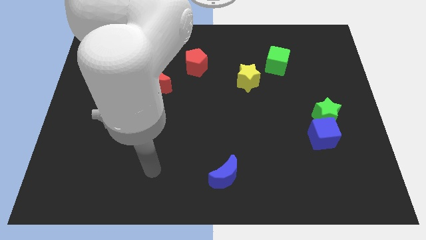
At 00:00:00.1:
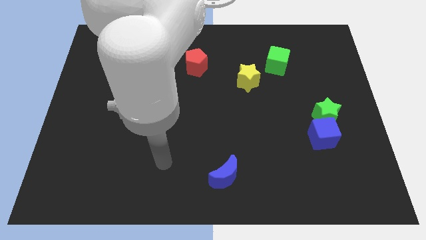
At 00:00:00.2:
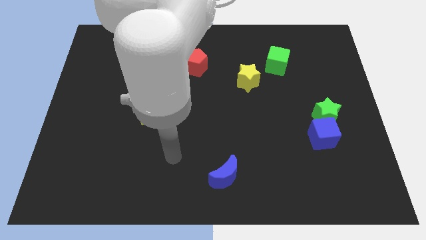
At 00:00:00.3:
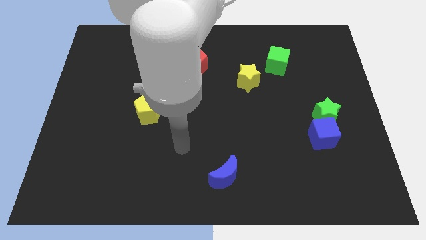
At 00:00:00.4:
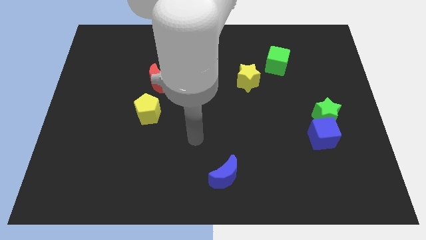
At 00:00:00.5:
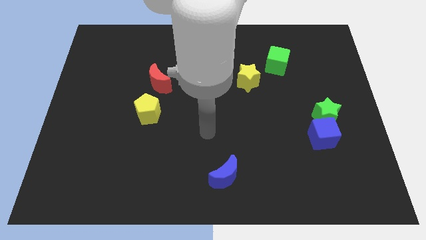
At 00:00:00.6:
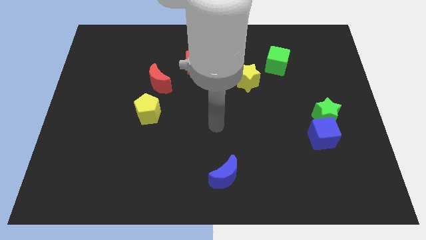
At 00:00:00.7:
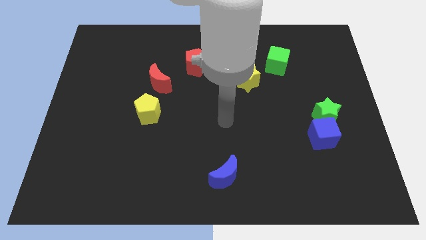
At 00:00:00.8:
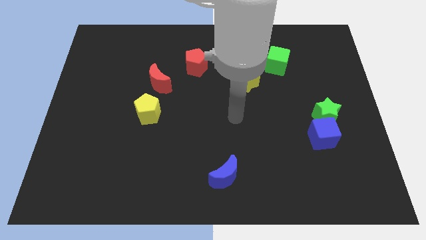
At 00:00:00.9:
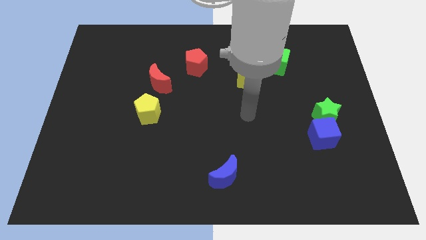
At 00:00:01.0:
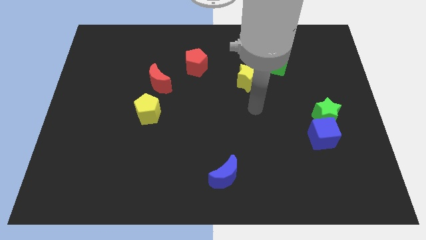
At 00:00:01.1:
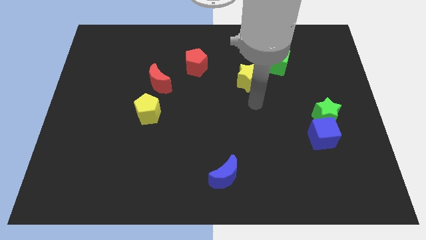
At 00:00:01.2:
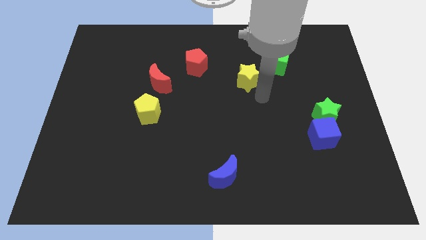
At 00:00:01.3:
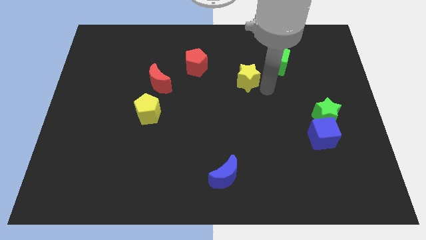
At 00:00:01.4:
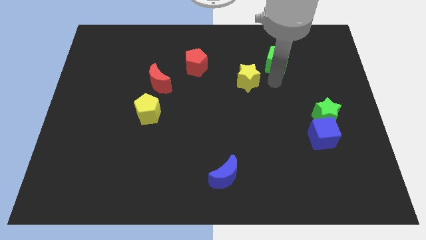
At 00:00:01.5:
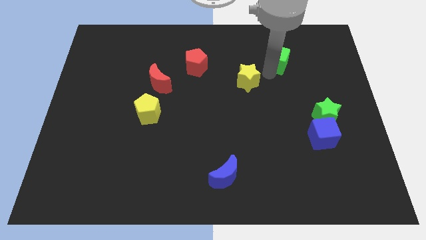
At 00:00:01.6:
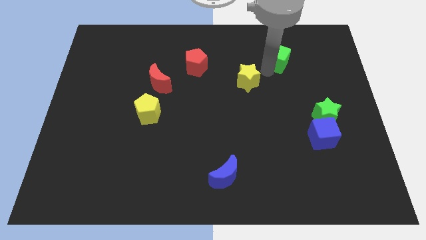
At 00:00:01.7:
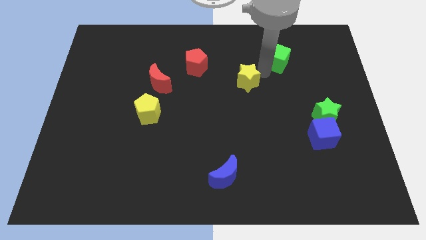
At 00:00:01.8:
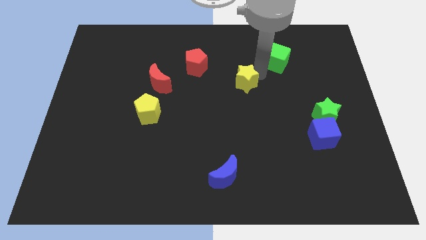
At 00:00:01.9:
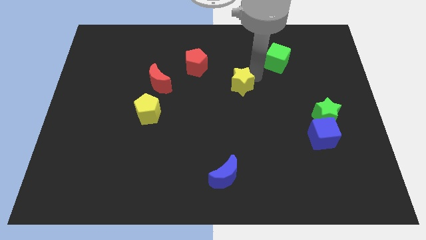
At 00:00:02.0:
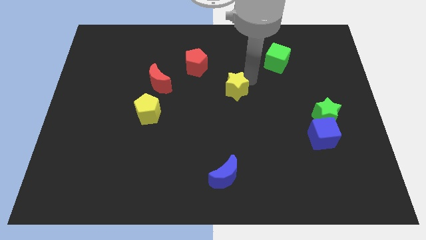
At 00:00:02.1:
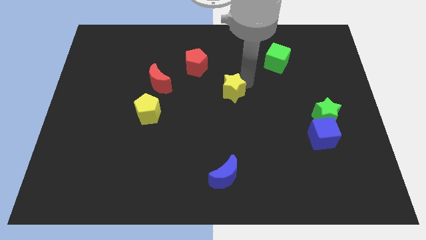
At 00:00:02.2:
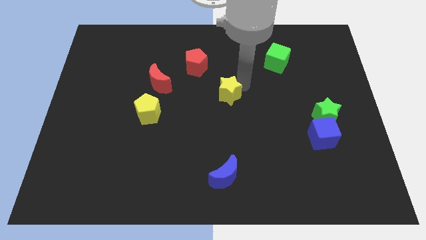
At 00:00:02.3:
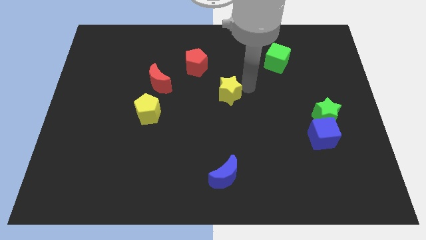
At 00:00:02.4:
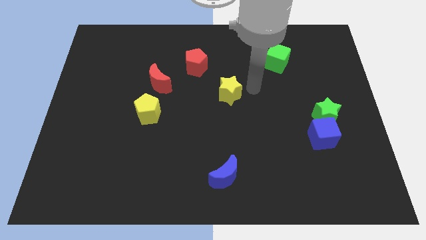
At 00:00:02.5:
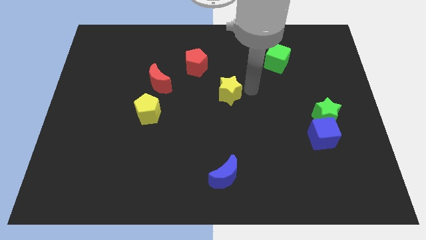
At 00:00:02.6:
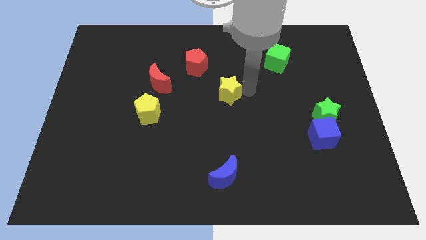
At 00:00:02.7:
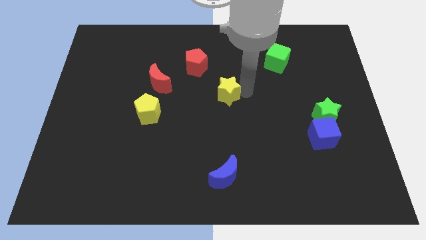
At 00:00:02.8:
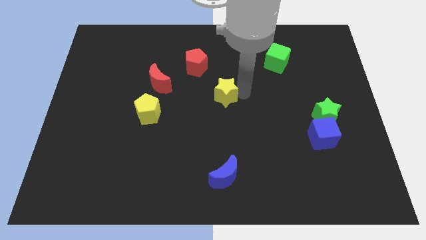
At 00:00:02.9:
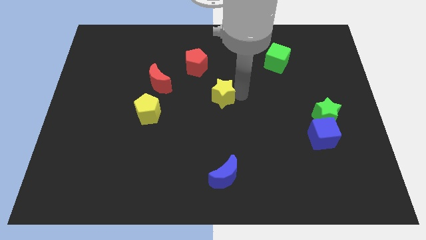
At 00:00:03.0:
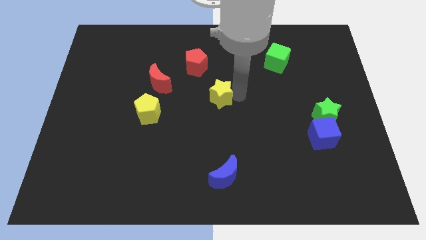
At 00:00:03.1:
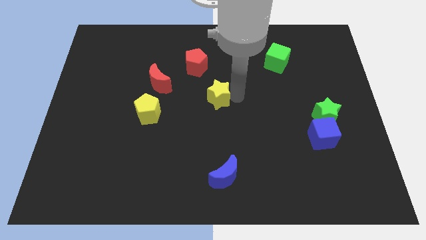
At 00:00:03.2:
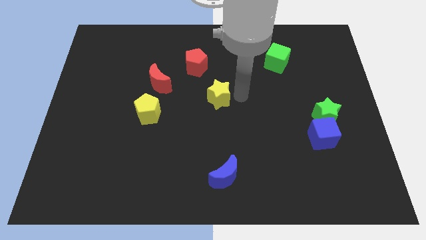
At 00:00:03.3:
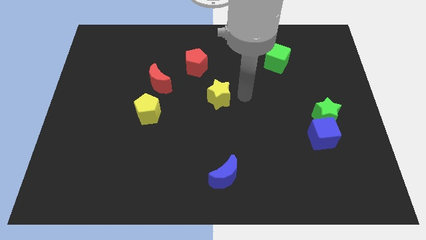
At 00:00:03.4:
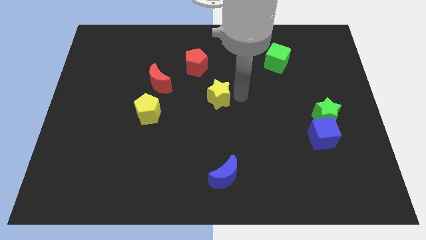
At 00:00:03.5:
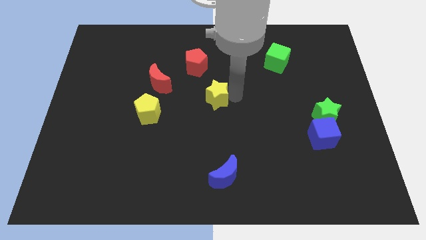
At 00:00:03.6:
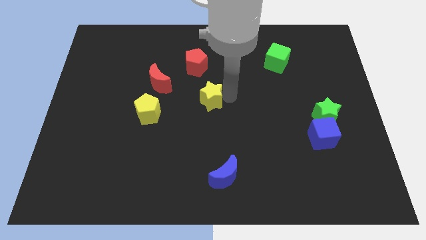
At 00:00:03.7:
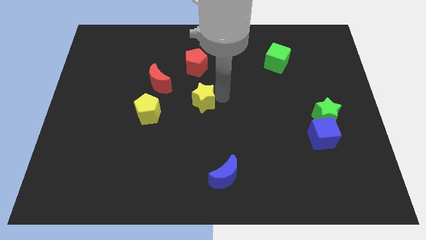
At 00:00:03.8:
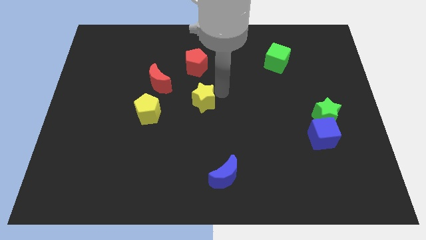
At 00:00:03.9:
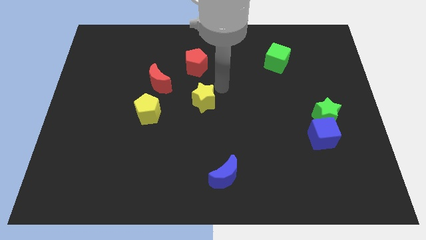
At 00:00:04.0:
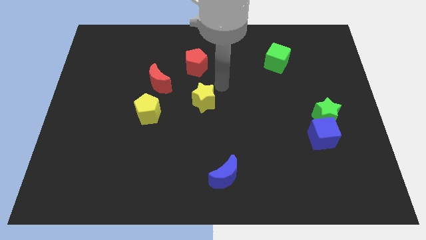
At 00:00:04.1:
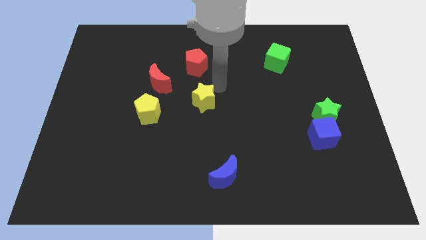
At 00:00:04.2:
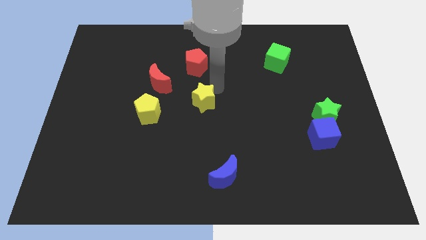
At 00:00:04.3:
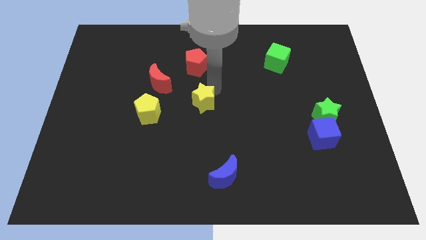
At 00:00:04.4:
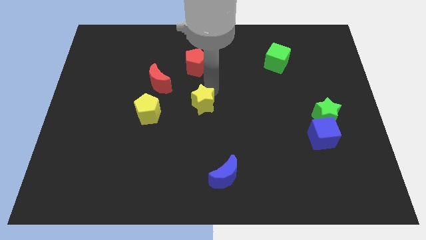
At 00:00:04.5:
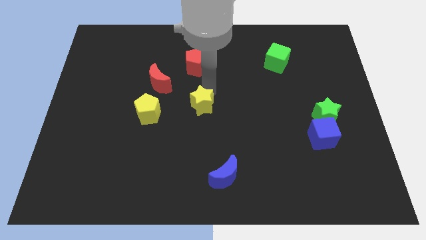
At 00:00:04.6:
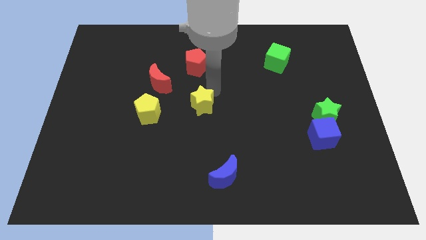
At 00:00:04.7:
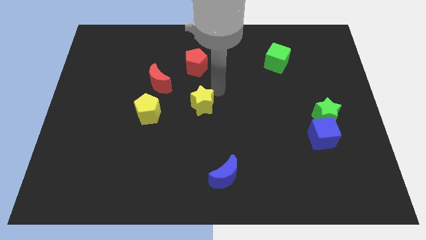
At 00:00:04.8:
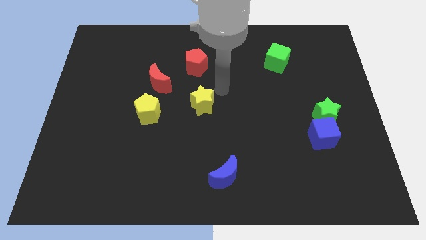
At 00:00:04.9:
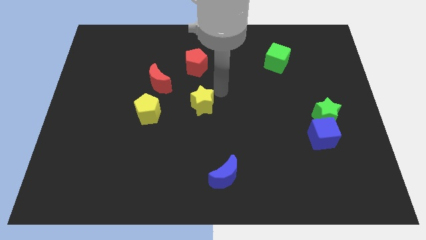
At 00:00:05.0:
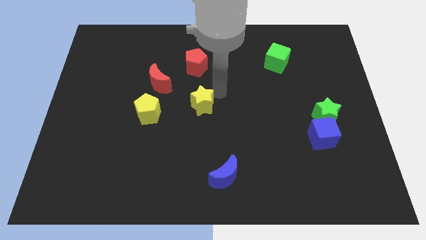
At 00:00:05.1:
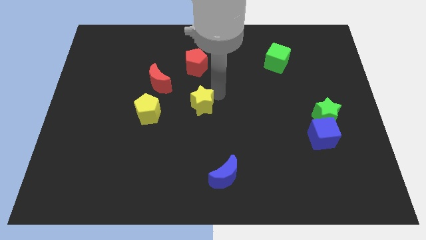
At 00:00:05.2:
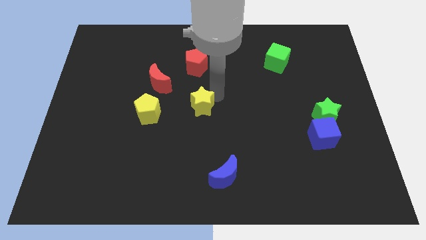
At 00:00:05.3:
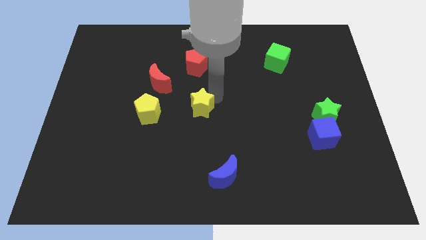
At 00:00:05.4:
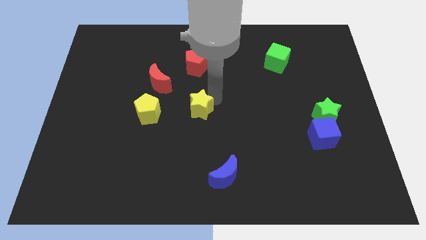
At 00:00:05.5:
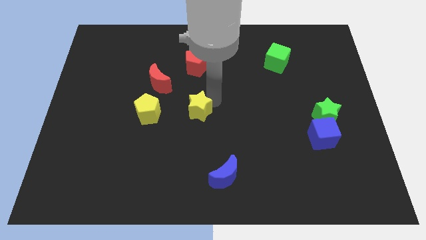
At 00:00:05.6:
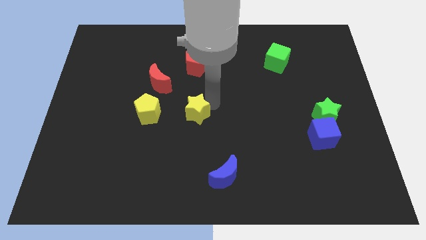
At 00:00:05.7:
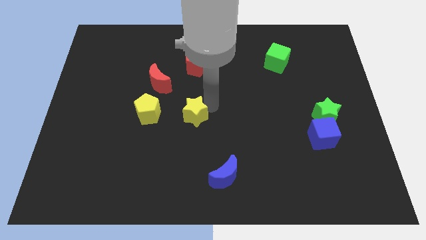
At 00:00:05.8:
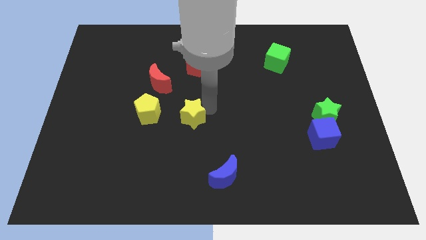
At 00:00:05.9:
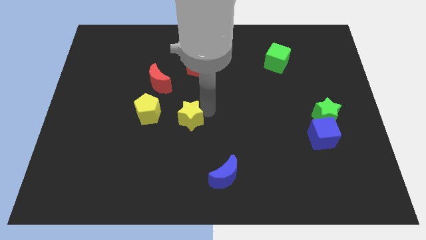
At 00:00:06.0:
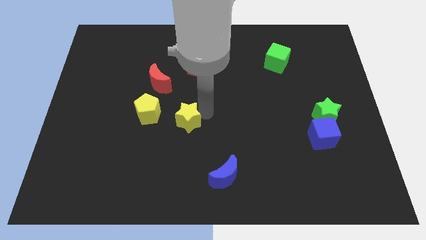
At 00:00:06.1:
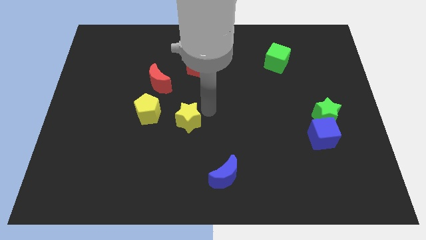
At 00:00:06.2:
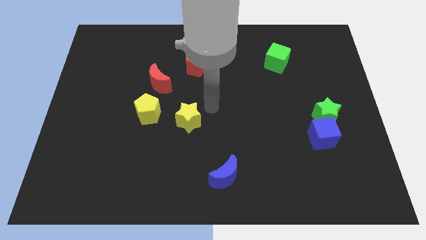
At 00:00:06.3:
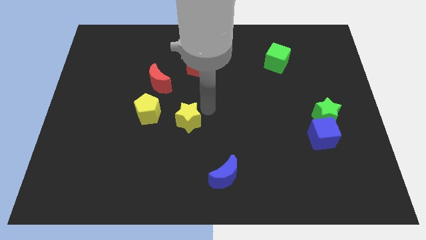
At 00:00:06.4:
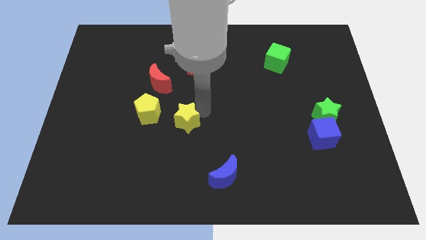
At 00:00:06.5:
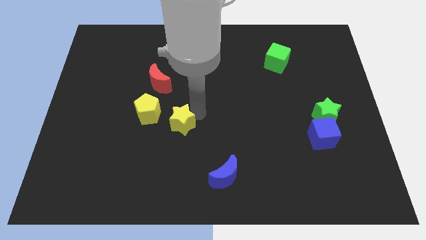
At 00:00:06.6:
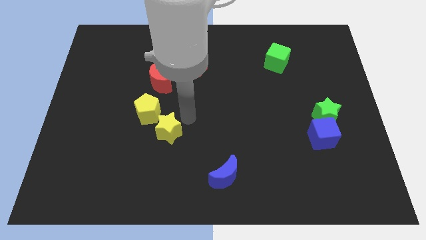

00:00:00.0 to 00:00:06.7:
put the yellow star below the yellow pentagon
